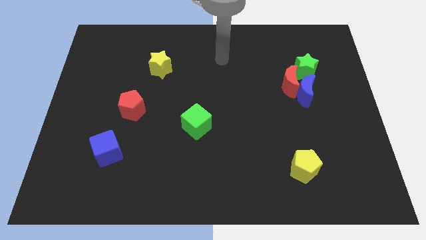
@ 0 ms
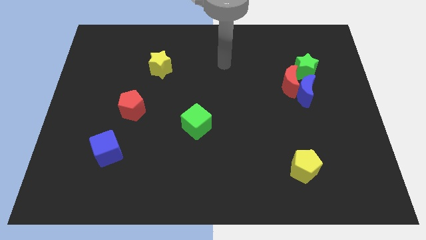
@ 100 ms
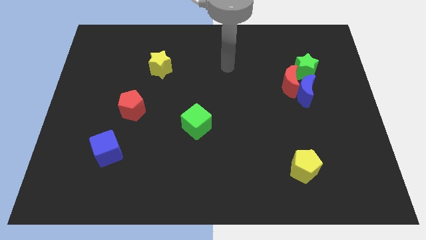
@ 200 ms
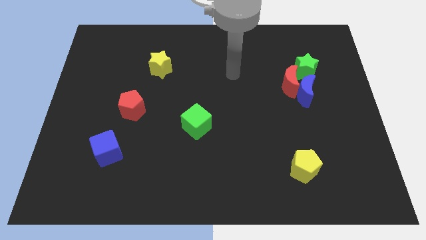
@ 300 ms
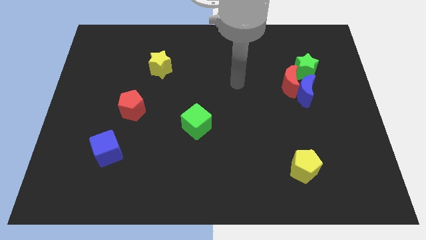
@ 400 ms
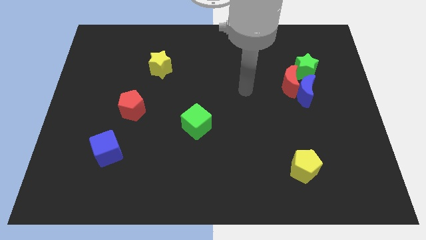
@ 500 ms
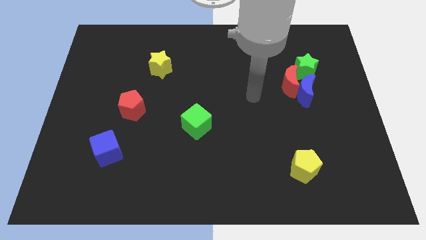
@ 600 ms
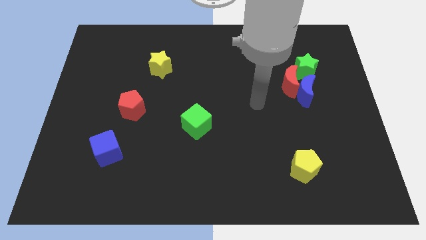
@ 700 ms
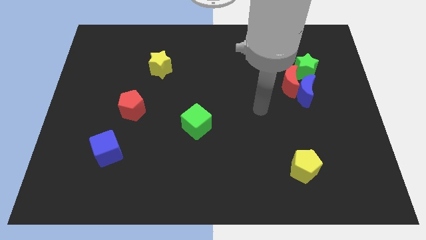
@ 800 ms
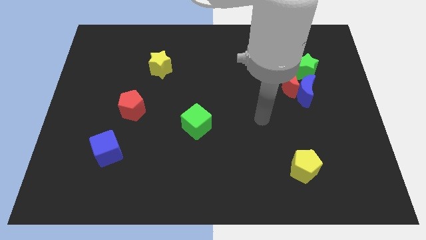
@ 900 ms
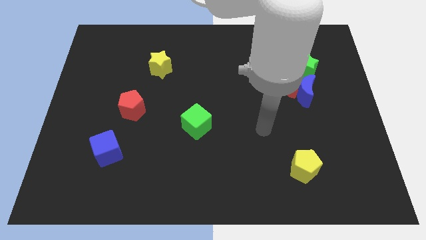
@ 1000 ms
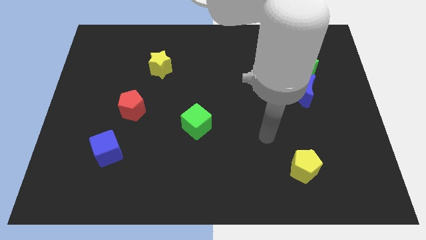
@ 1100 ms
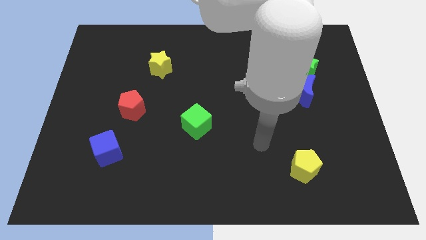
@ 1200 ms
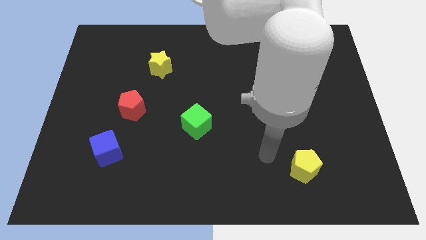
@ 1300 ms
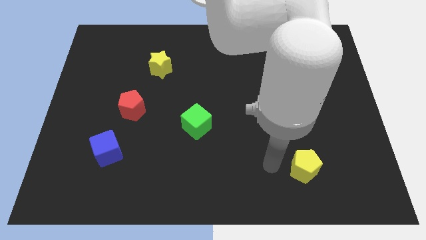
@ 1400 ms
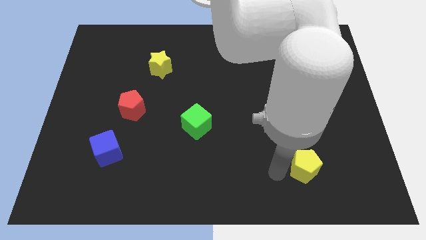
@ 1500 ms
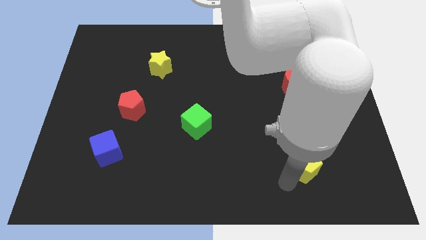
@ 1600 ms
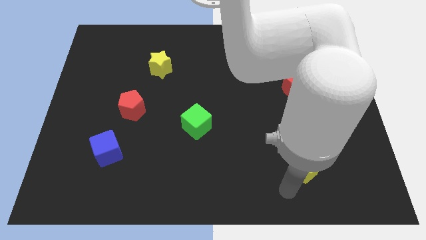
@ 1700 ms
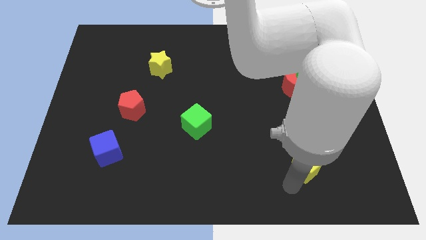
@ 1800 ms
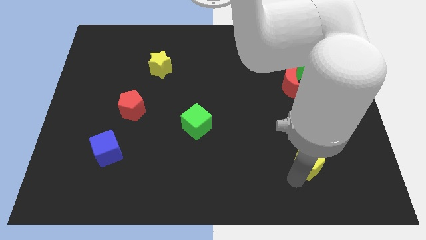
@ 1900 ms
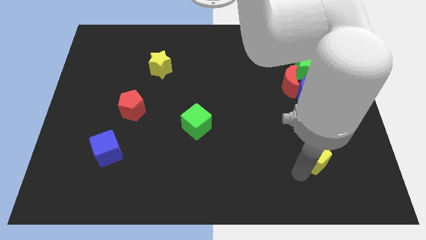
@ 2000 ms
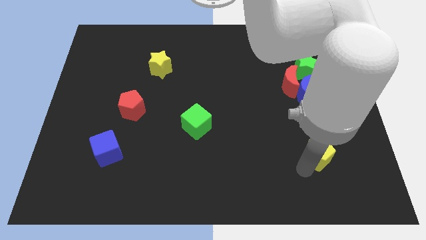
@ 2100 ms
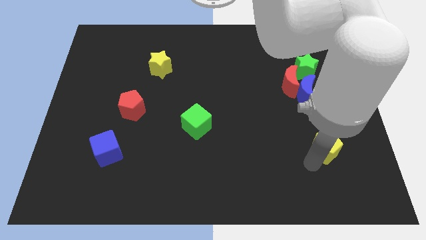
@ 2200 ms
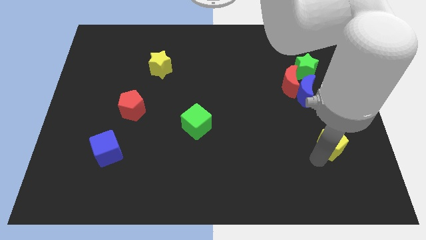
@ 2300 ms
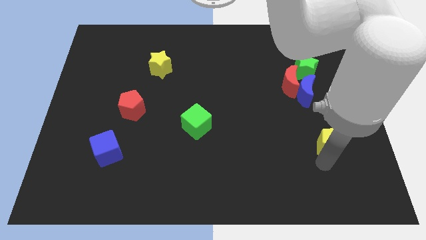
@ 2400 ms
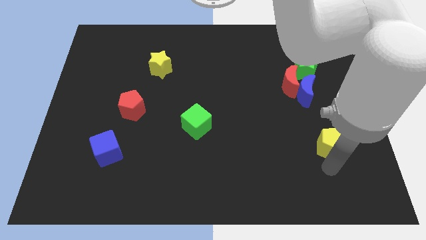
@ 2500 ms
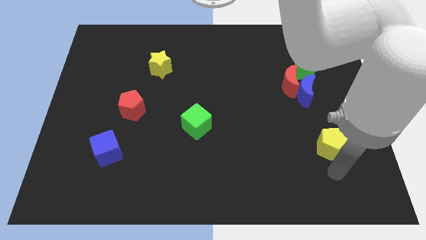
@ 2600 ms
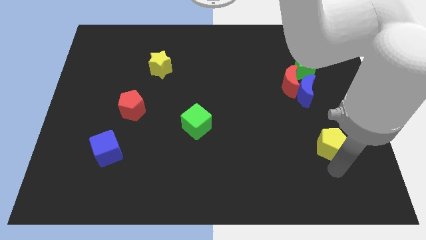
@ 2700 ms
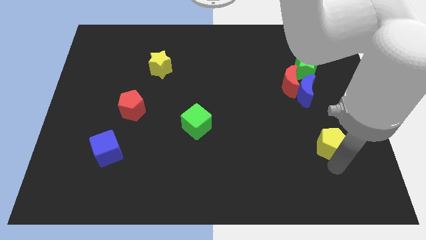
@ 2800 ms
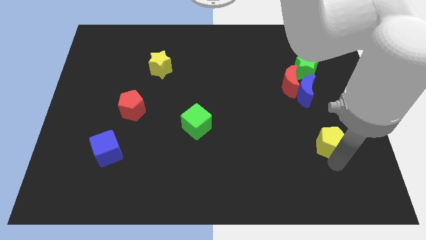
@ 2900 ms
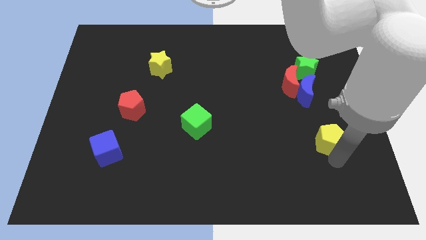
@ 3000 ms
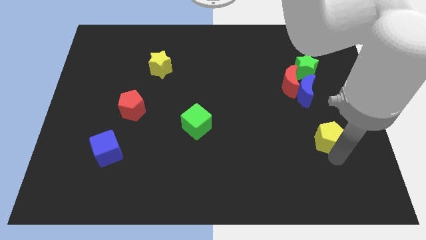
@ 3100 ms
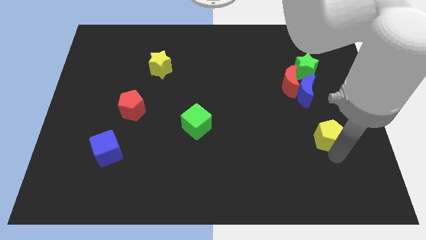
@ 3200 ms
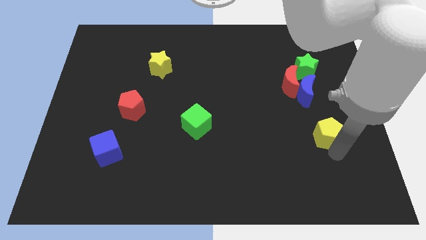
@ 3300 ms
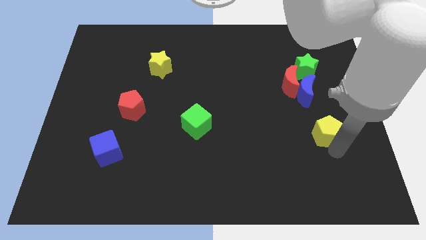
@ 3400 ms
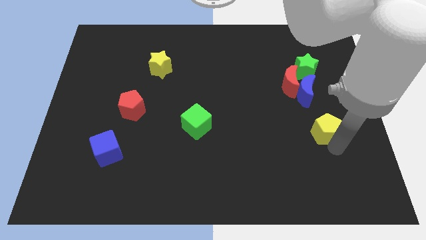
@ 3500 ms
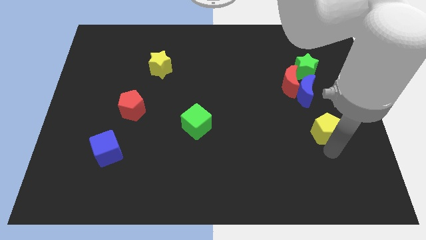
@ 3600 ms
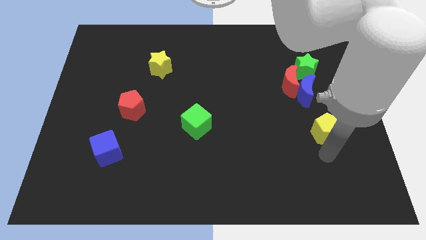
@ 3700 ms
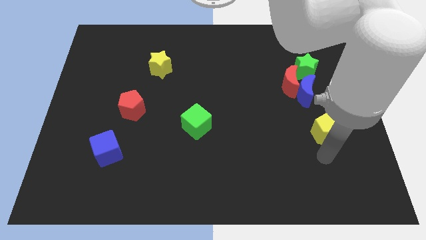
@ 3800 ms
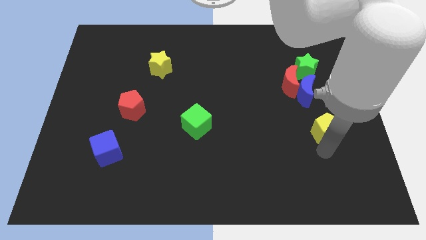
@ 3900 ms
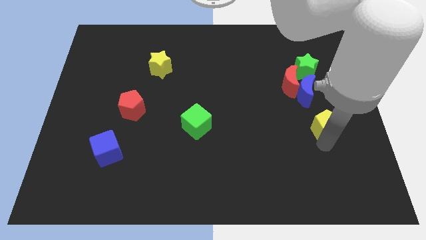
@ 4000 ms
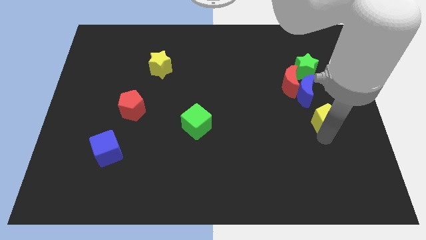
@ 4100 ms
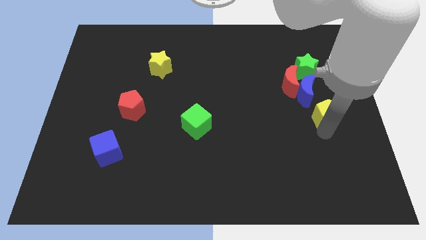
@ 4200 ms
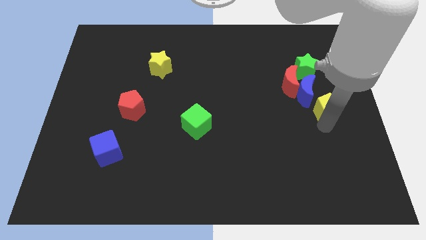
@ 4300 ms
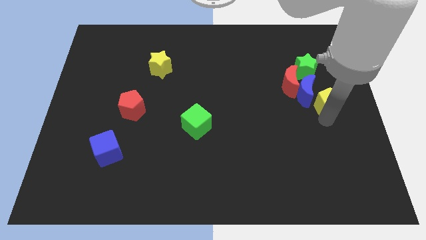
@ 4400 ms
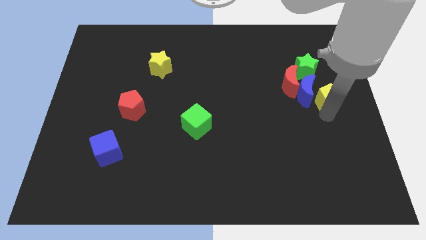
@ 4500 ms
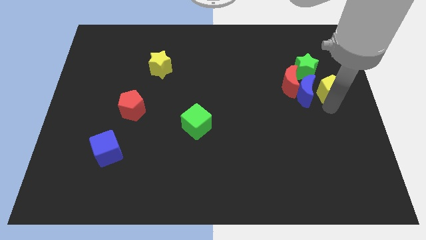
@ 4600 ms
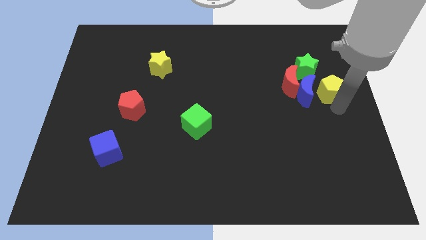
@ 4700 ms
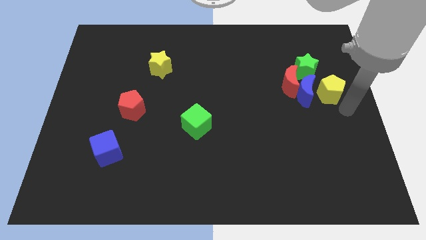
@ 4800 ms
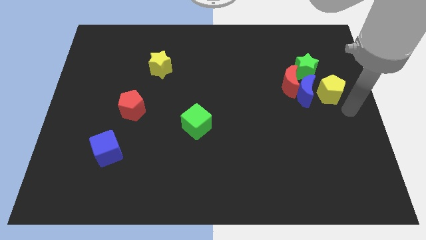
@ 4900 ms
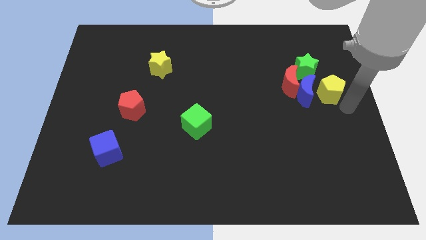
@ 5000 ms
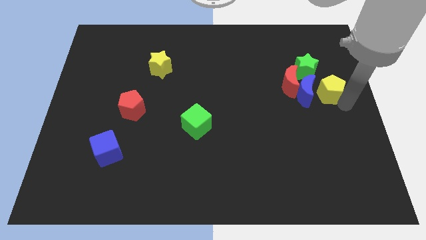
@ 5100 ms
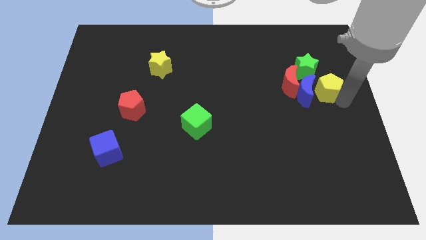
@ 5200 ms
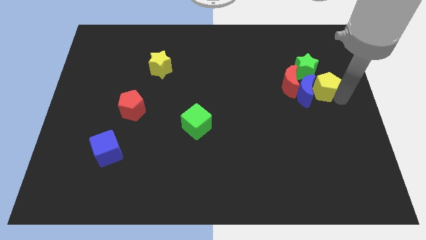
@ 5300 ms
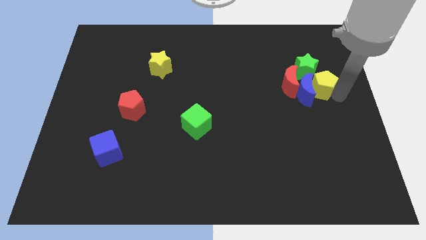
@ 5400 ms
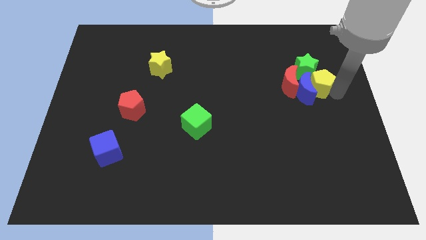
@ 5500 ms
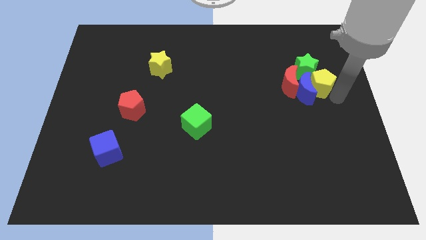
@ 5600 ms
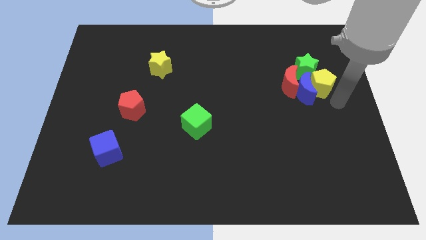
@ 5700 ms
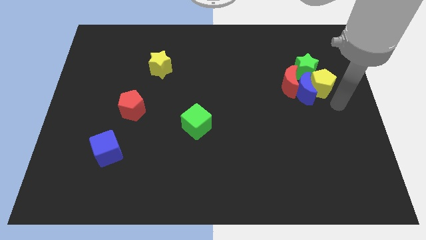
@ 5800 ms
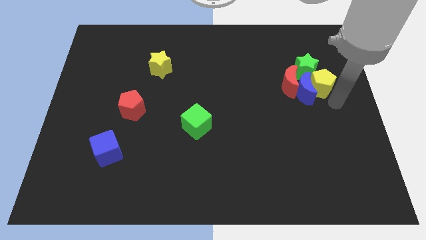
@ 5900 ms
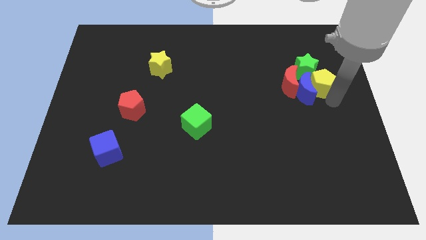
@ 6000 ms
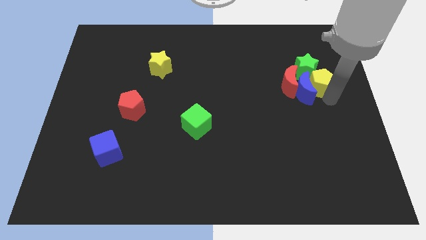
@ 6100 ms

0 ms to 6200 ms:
move the yellow pentagon next to the green star

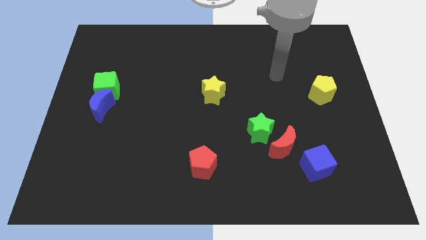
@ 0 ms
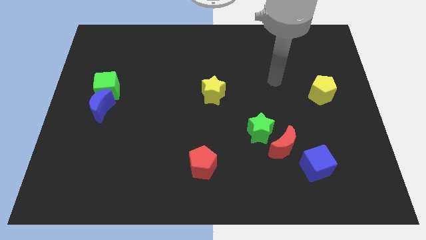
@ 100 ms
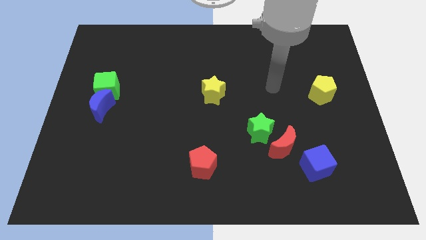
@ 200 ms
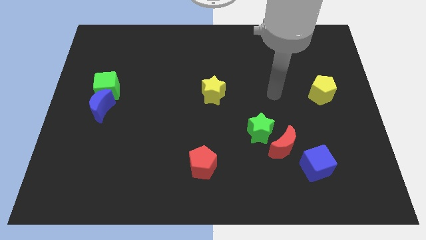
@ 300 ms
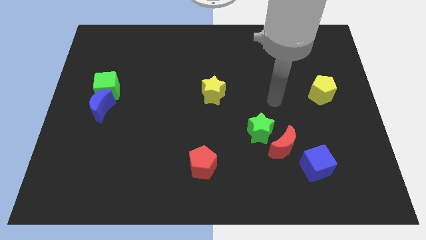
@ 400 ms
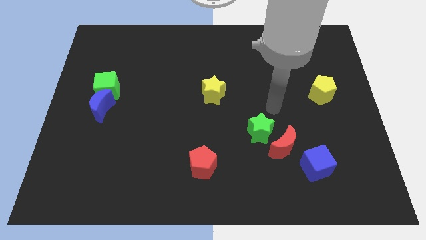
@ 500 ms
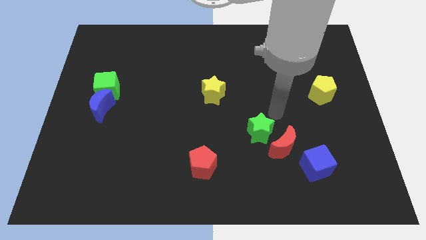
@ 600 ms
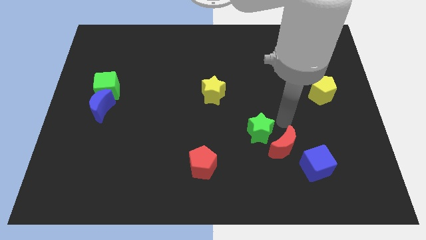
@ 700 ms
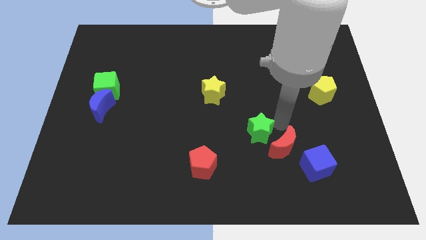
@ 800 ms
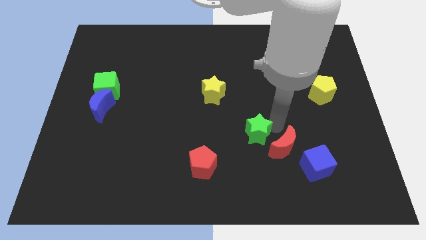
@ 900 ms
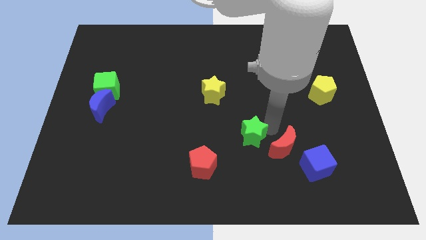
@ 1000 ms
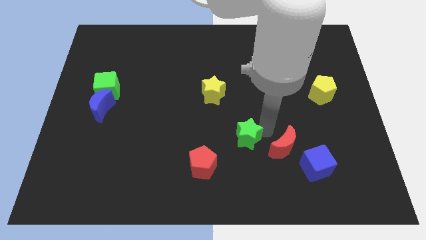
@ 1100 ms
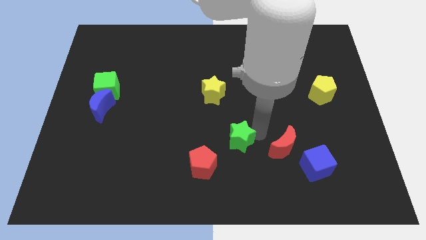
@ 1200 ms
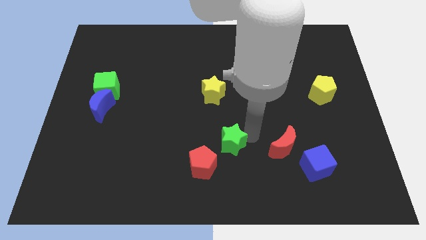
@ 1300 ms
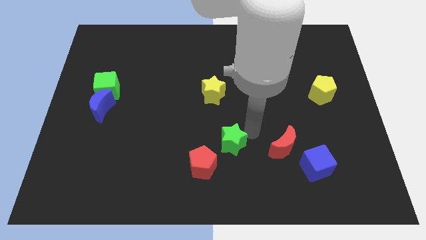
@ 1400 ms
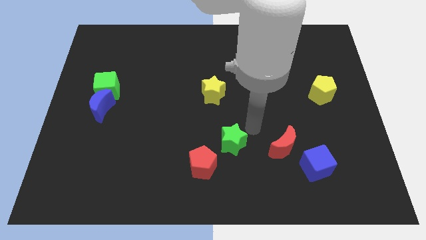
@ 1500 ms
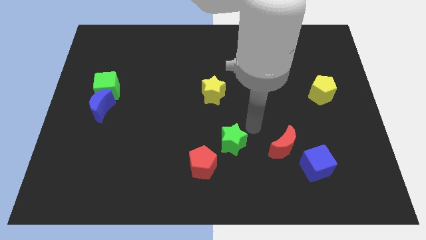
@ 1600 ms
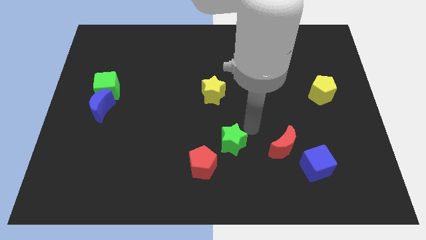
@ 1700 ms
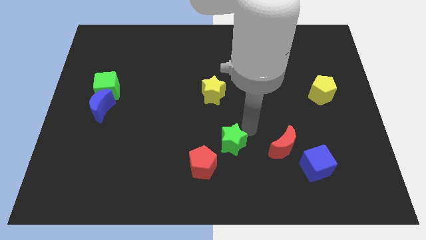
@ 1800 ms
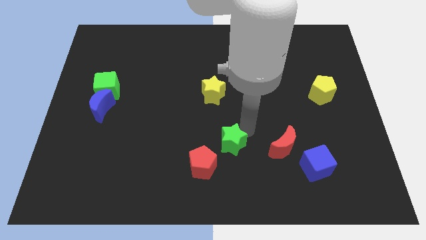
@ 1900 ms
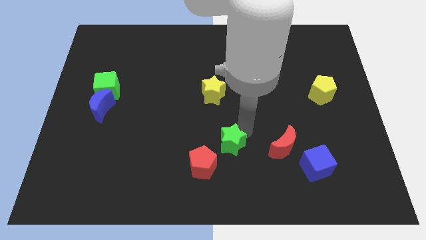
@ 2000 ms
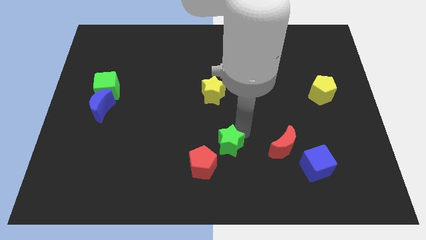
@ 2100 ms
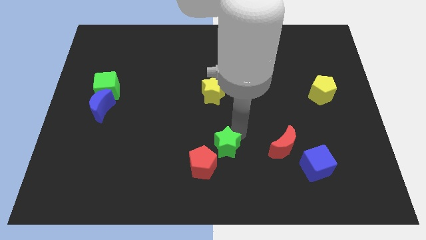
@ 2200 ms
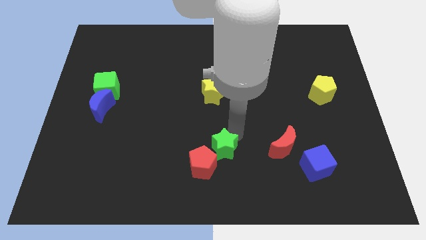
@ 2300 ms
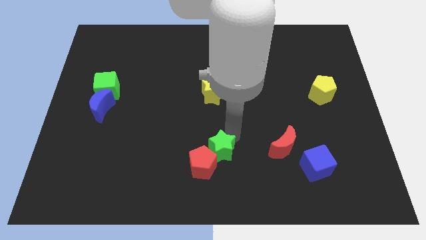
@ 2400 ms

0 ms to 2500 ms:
slide the green star next to the red pentagon
